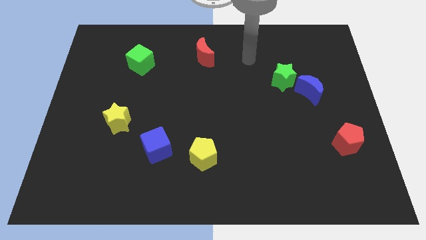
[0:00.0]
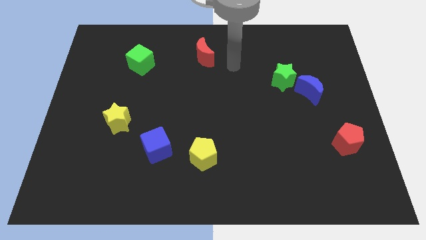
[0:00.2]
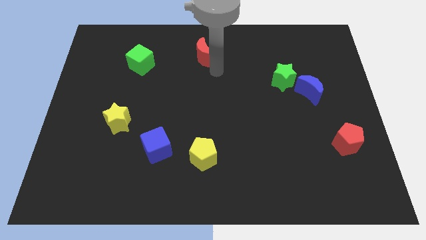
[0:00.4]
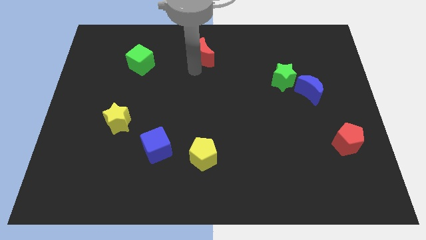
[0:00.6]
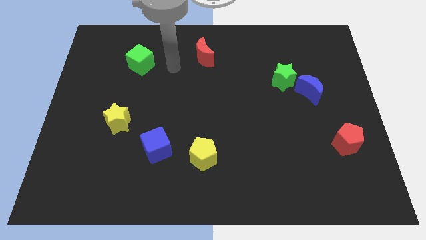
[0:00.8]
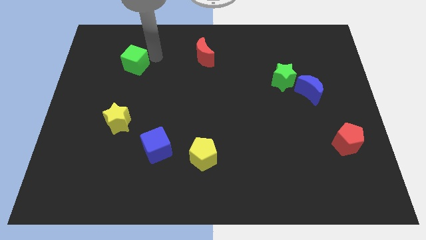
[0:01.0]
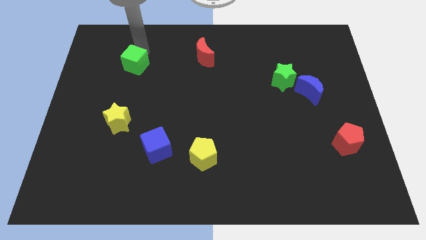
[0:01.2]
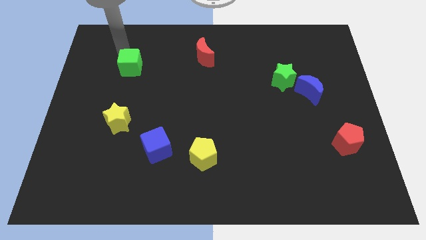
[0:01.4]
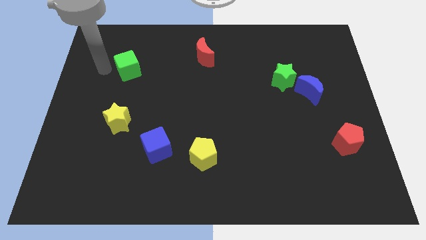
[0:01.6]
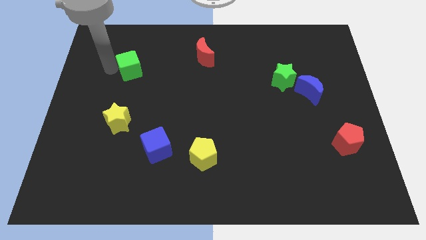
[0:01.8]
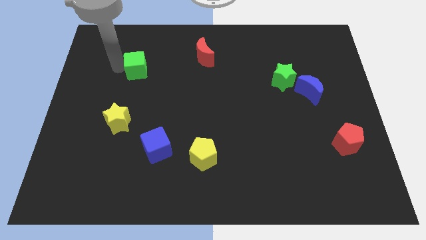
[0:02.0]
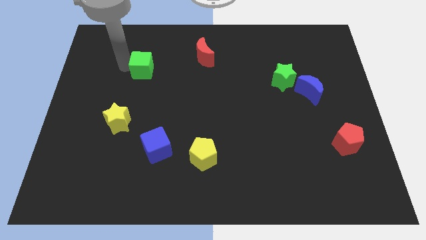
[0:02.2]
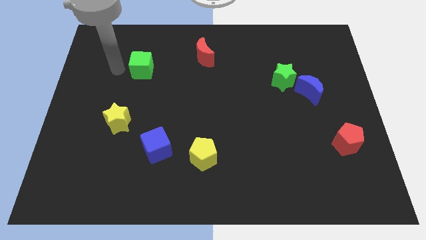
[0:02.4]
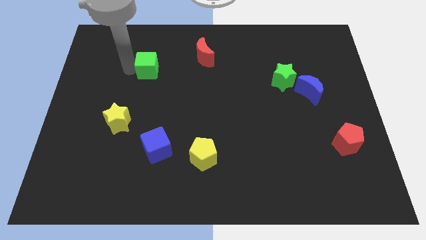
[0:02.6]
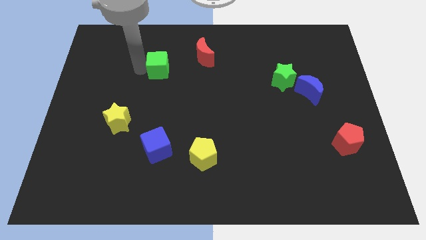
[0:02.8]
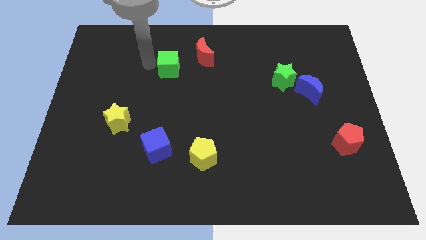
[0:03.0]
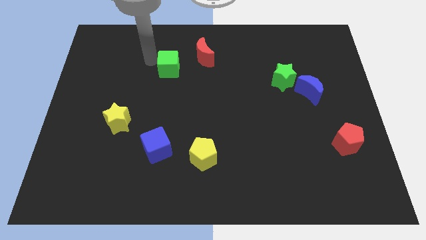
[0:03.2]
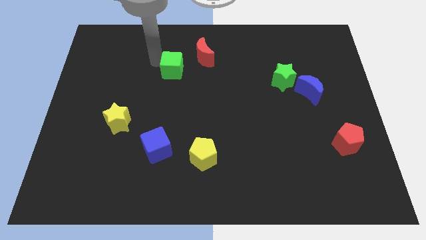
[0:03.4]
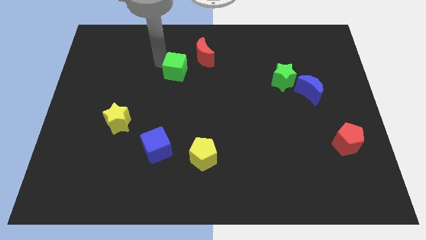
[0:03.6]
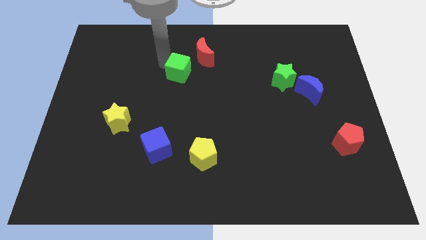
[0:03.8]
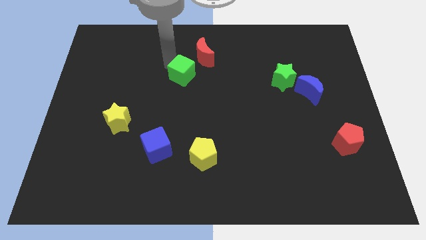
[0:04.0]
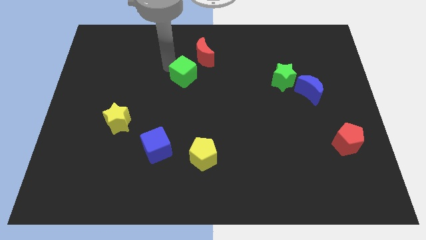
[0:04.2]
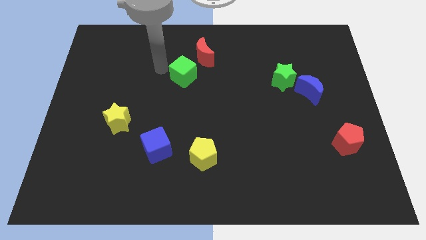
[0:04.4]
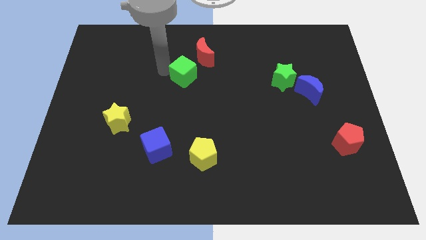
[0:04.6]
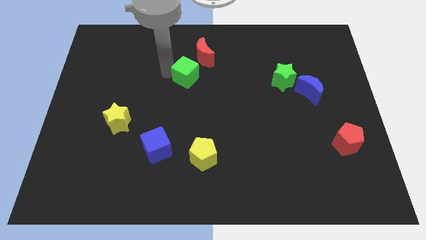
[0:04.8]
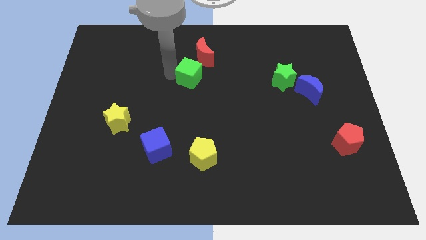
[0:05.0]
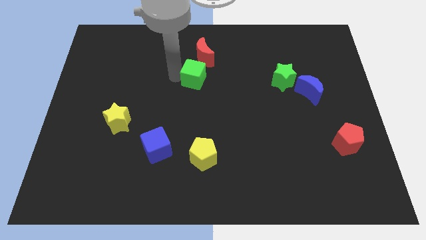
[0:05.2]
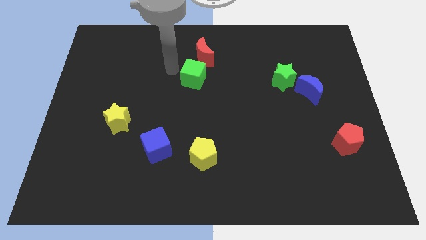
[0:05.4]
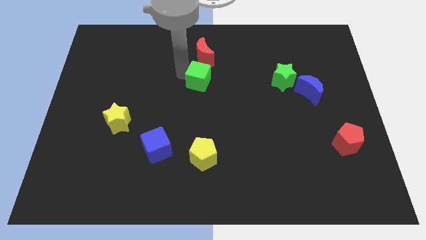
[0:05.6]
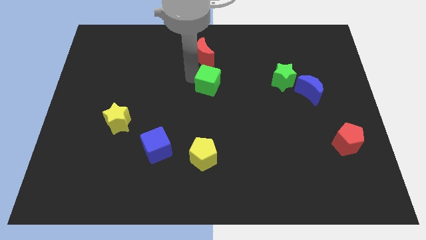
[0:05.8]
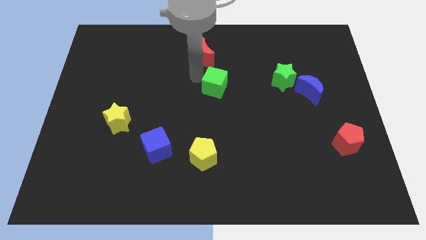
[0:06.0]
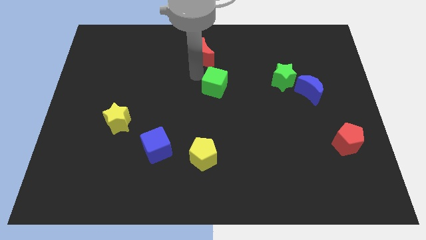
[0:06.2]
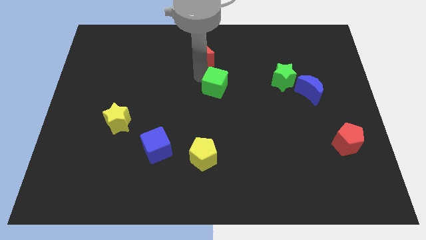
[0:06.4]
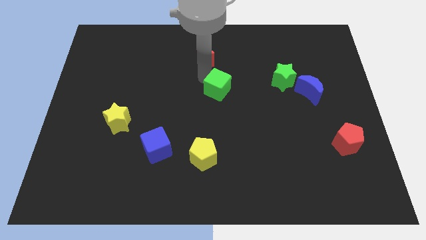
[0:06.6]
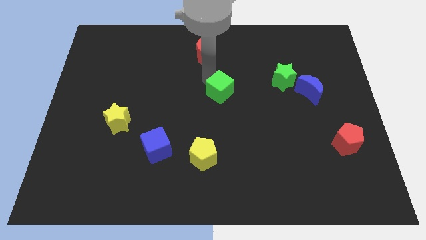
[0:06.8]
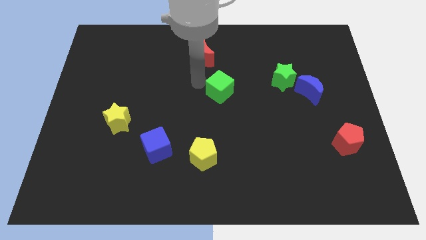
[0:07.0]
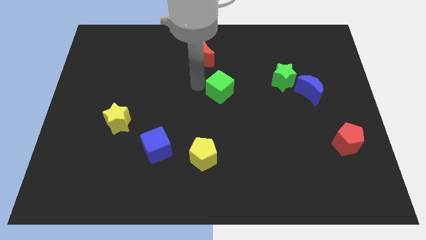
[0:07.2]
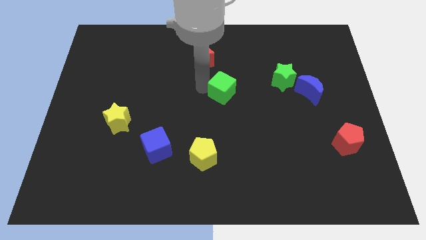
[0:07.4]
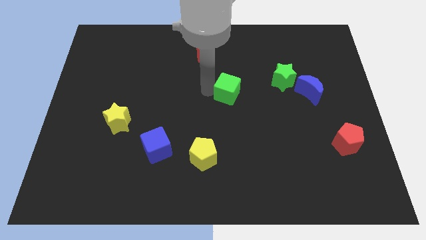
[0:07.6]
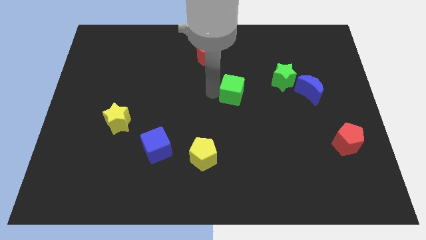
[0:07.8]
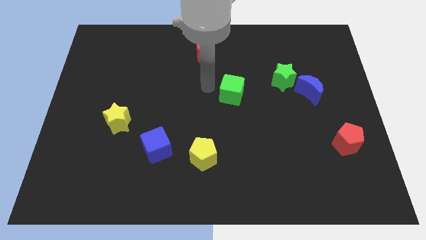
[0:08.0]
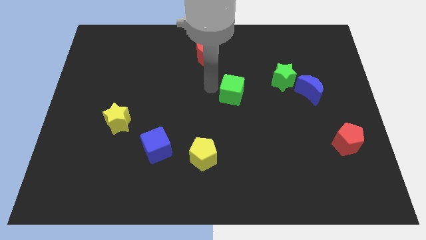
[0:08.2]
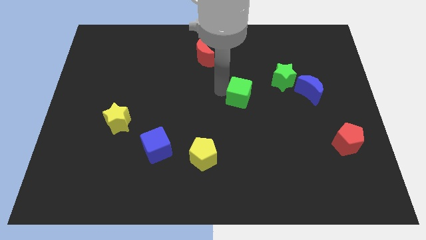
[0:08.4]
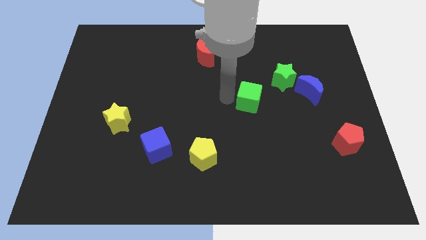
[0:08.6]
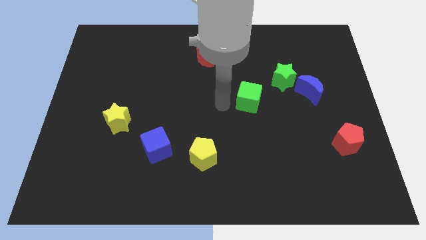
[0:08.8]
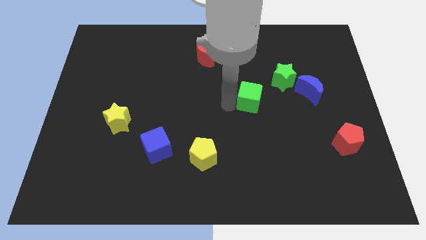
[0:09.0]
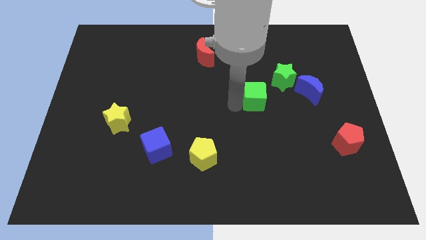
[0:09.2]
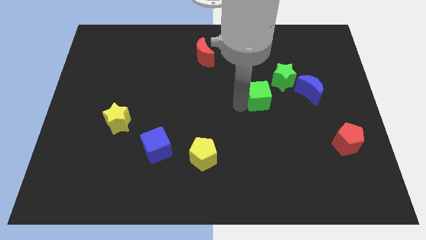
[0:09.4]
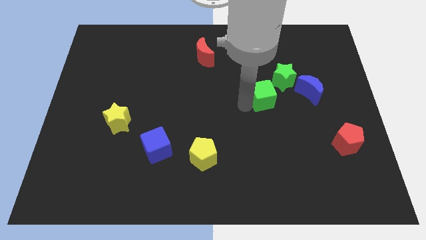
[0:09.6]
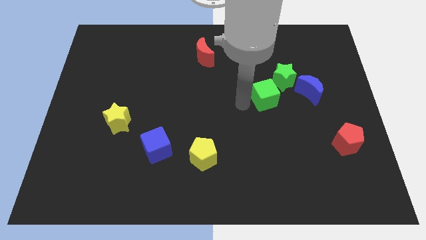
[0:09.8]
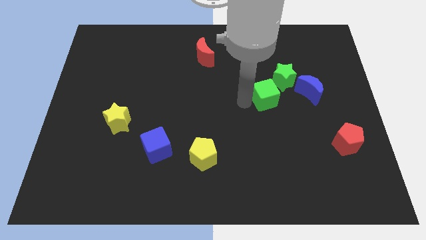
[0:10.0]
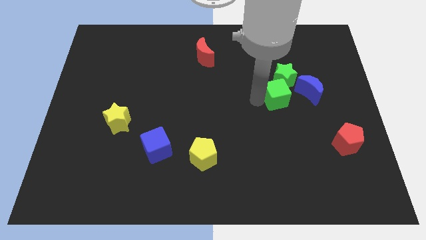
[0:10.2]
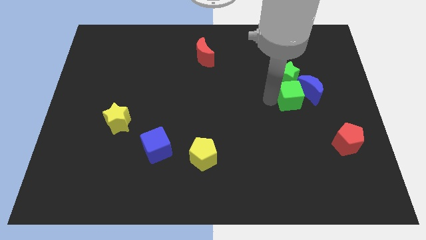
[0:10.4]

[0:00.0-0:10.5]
move the green cube towards the blue moon

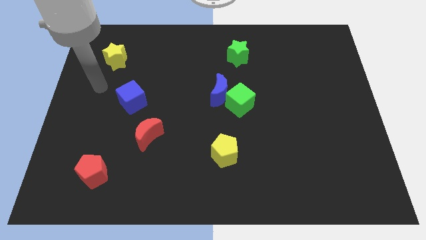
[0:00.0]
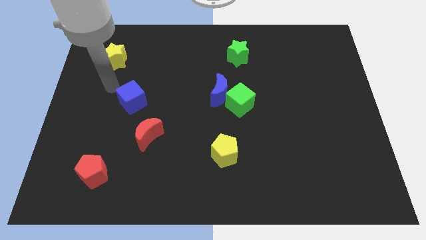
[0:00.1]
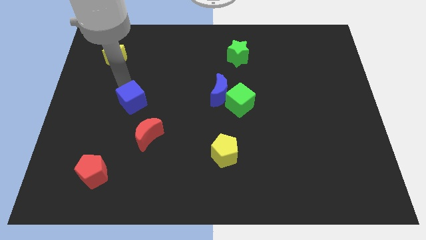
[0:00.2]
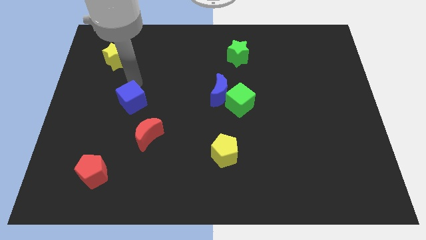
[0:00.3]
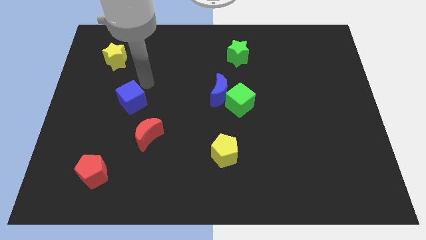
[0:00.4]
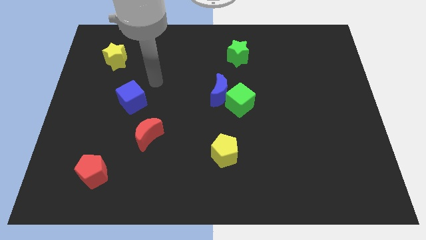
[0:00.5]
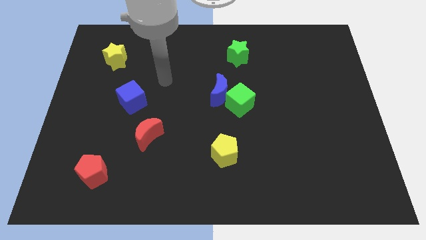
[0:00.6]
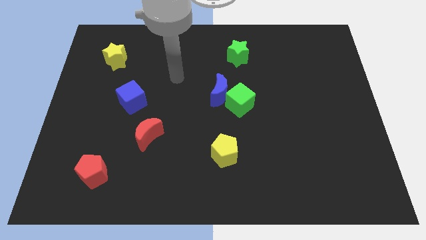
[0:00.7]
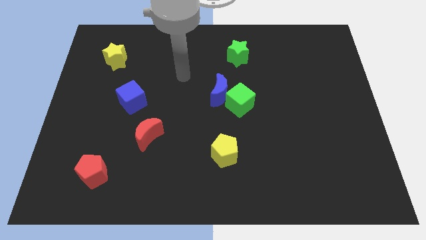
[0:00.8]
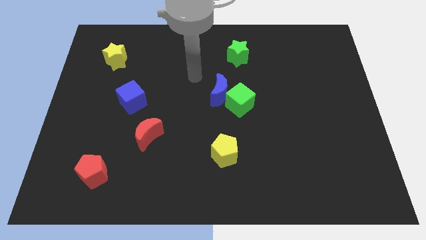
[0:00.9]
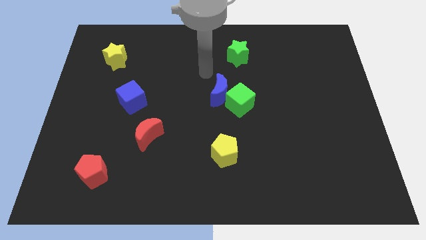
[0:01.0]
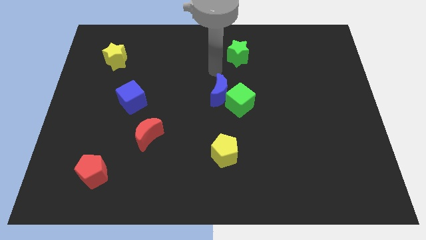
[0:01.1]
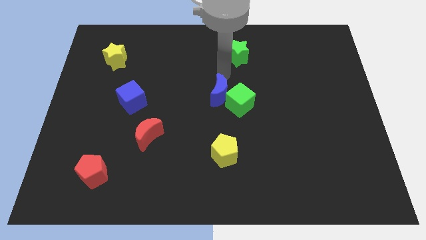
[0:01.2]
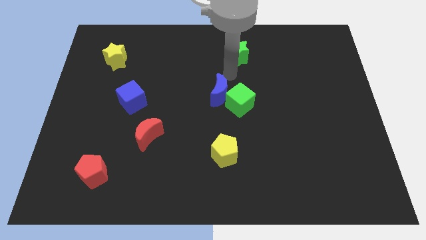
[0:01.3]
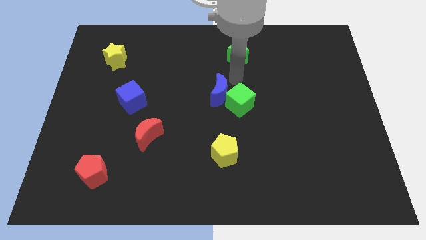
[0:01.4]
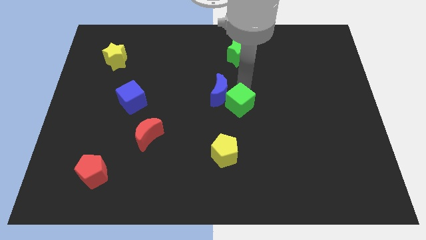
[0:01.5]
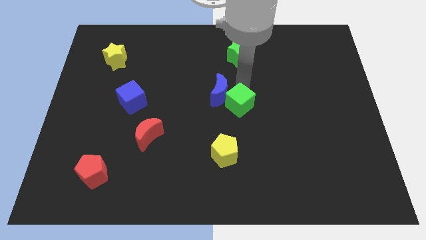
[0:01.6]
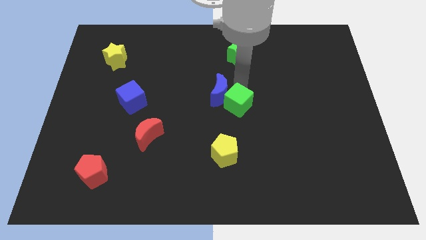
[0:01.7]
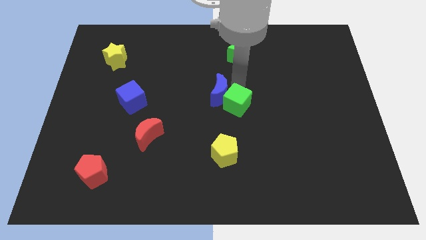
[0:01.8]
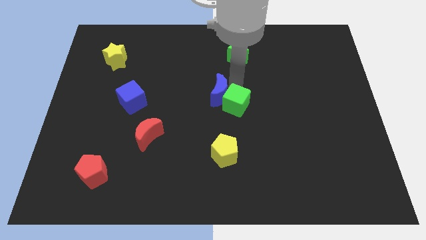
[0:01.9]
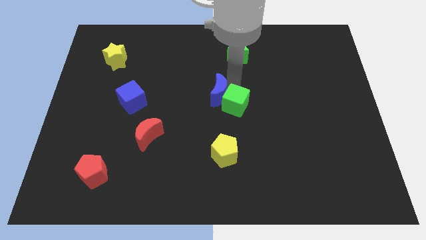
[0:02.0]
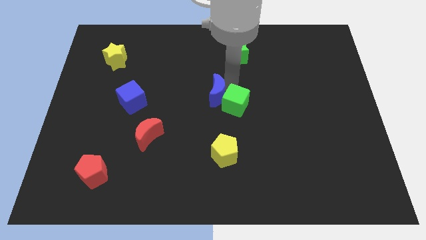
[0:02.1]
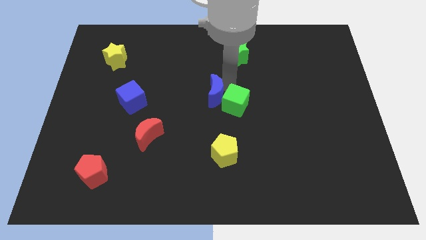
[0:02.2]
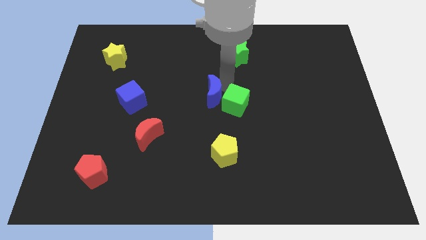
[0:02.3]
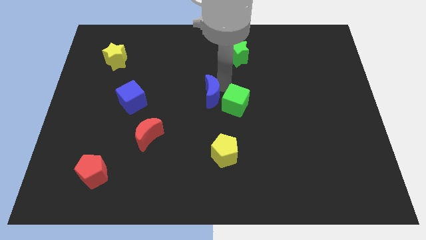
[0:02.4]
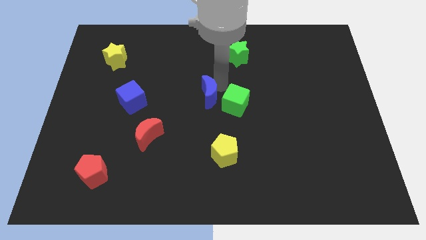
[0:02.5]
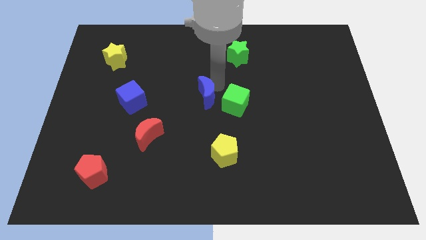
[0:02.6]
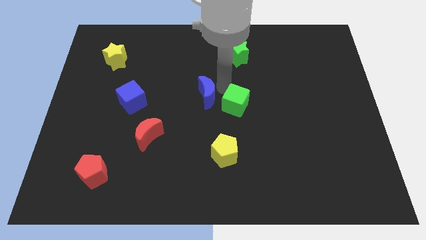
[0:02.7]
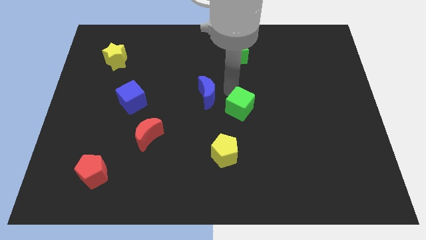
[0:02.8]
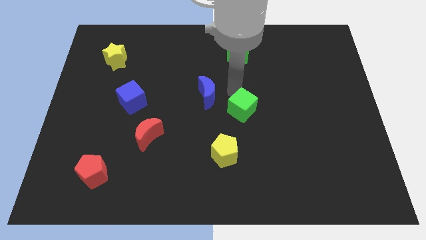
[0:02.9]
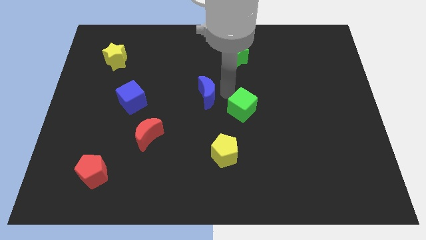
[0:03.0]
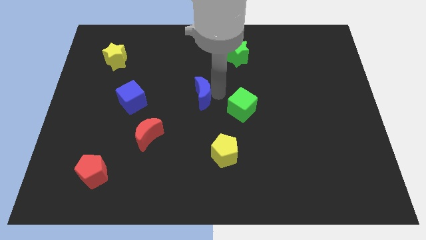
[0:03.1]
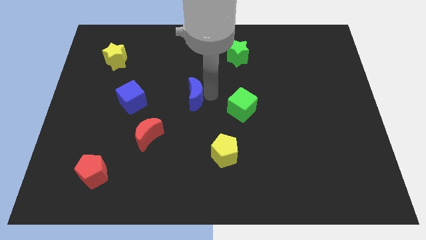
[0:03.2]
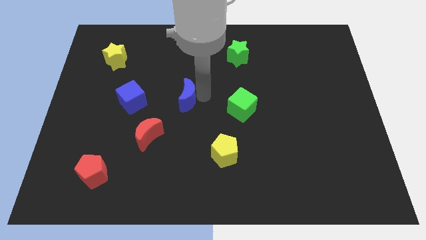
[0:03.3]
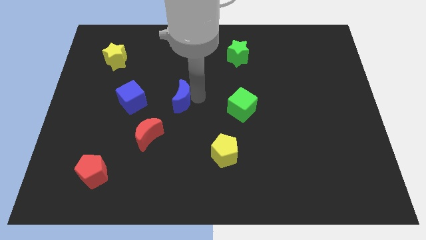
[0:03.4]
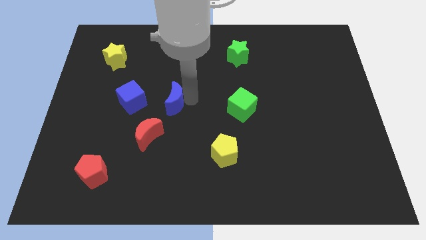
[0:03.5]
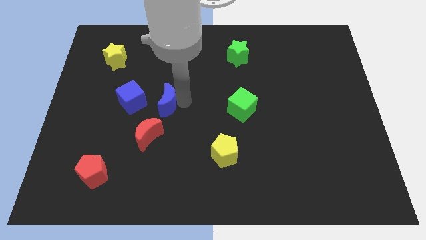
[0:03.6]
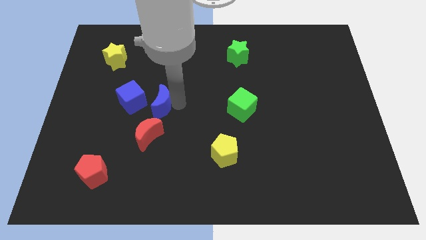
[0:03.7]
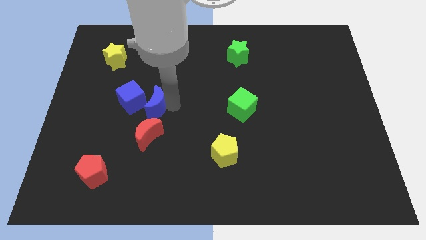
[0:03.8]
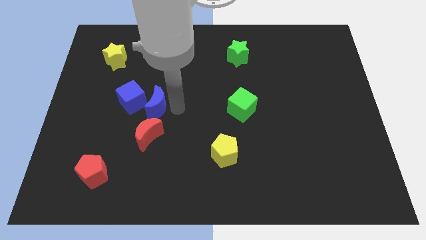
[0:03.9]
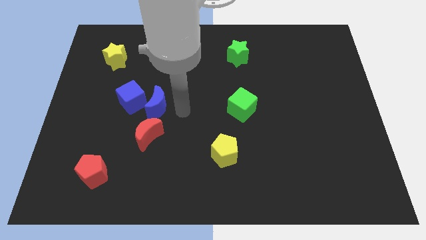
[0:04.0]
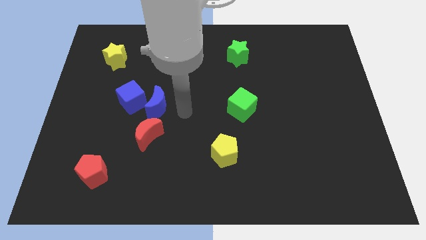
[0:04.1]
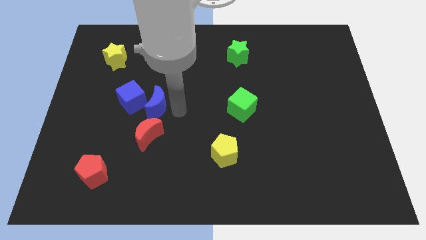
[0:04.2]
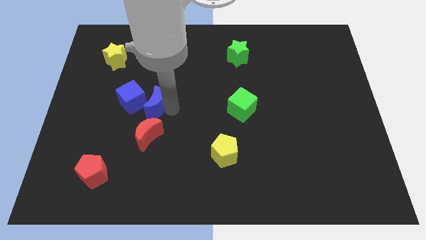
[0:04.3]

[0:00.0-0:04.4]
push the blue moon towards the blue cube
